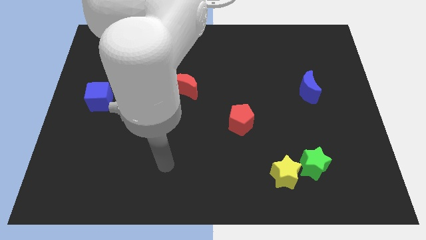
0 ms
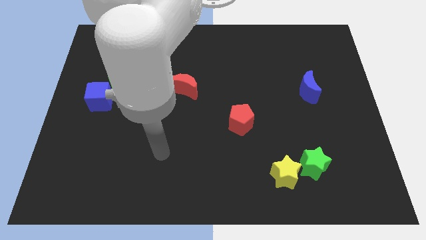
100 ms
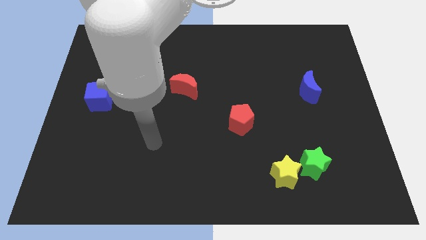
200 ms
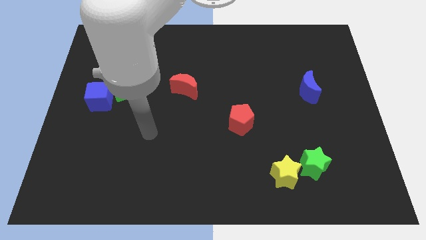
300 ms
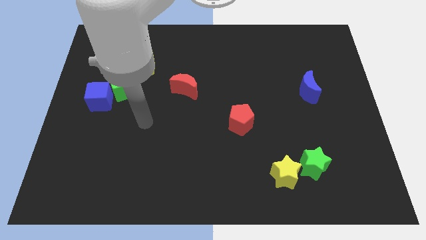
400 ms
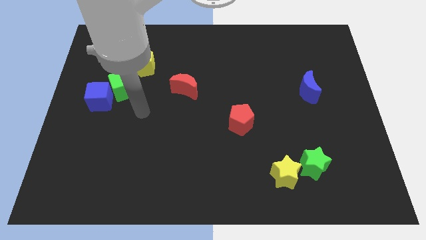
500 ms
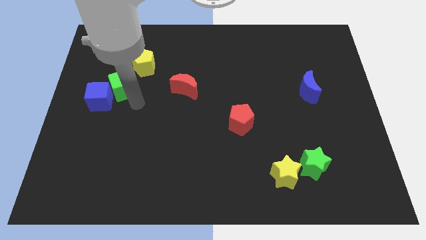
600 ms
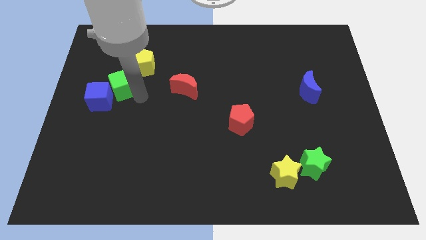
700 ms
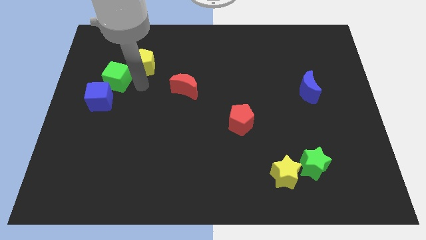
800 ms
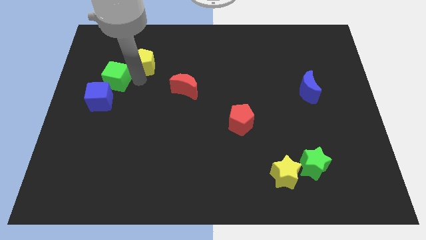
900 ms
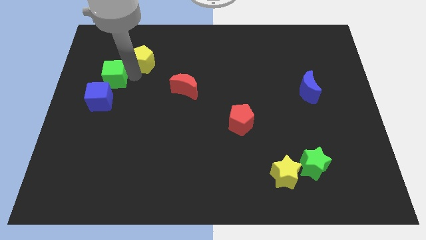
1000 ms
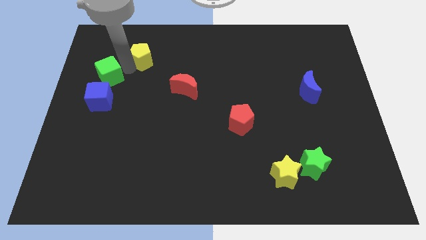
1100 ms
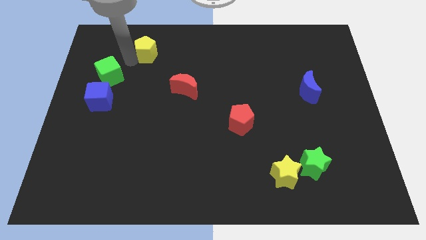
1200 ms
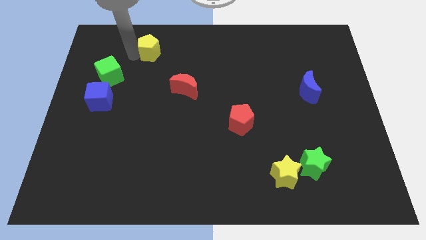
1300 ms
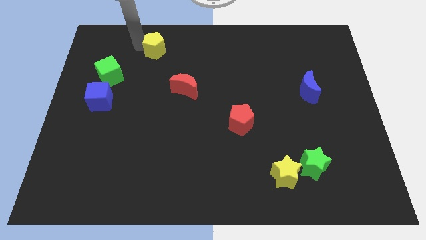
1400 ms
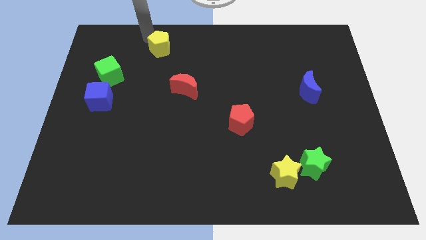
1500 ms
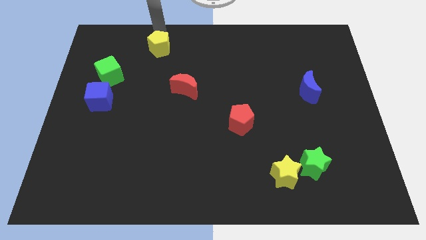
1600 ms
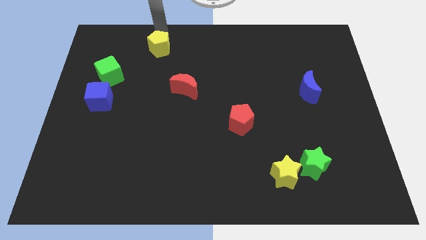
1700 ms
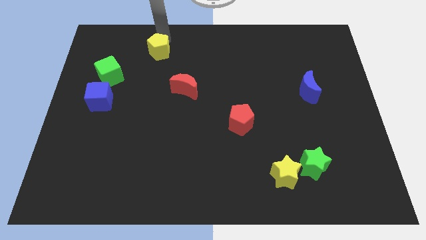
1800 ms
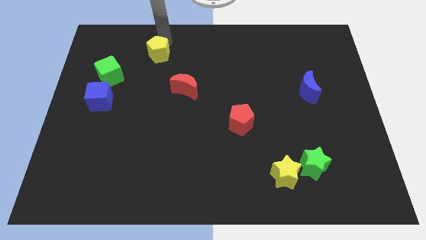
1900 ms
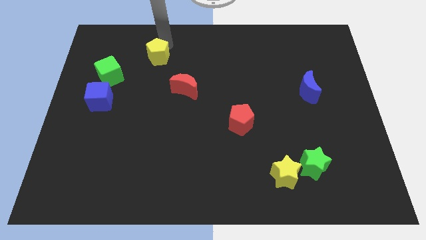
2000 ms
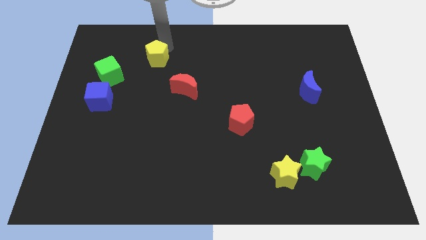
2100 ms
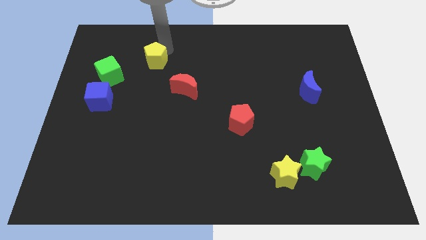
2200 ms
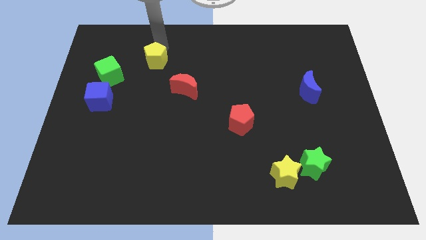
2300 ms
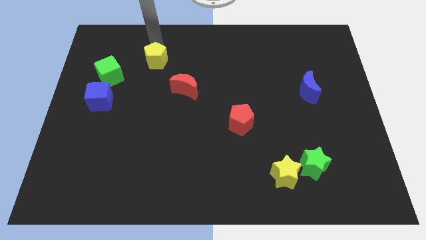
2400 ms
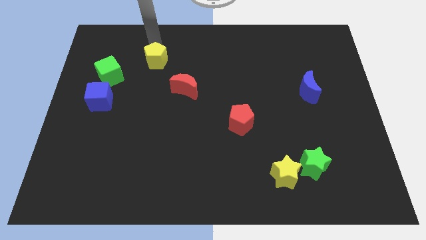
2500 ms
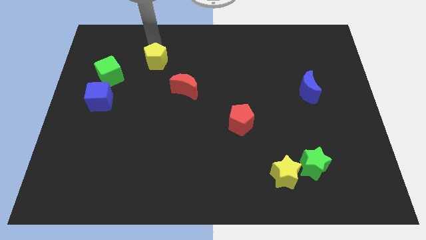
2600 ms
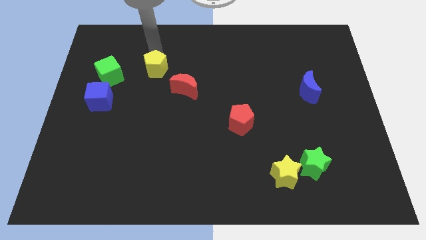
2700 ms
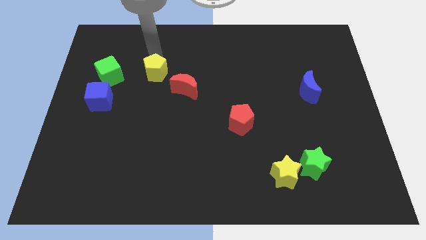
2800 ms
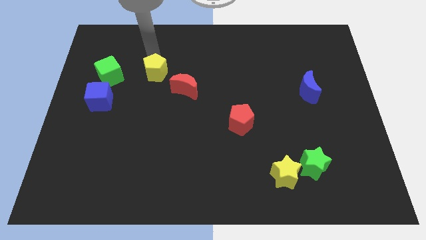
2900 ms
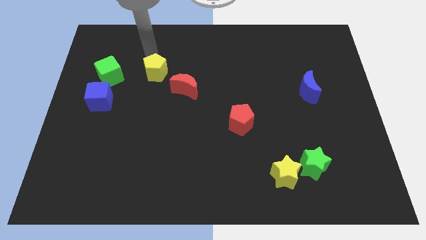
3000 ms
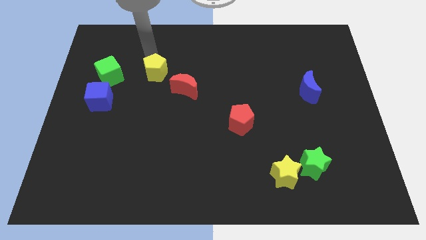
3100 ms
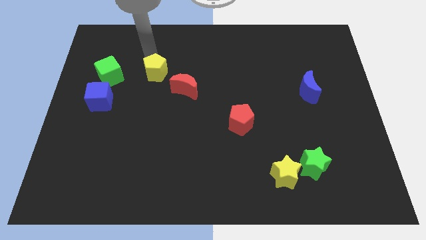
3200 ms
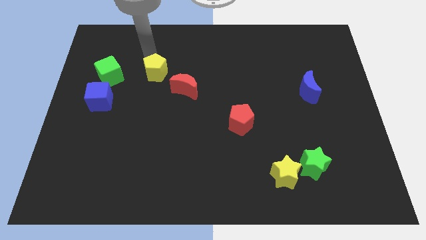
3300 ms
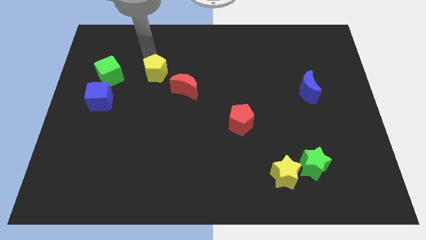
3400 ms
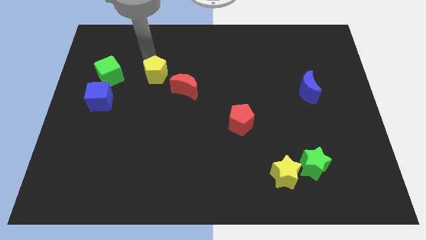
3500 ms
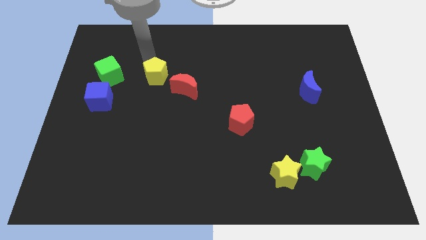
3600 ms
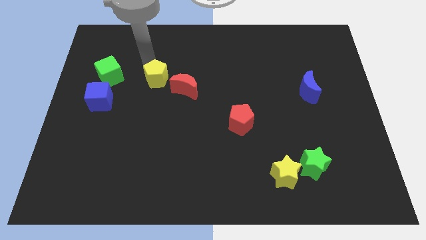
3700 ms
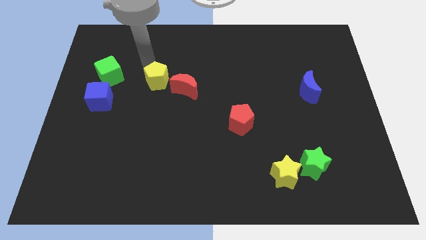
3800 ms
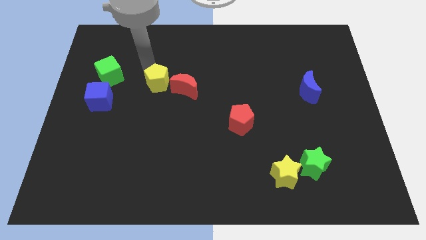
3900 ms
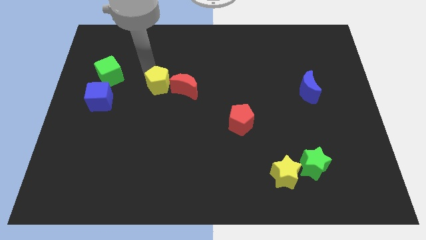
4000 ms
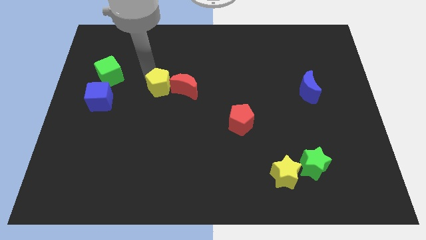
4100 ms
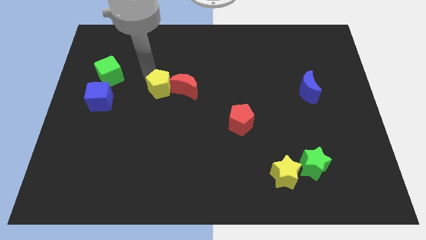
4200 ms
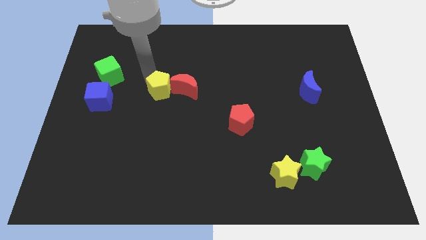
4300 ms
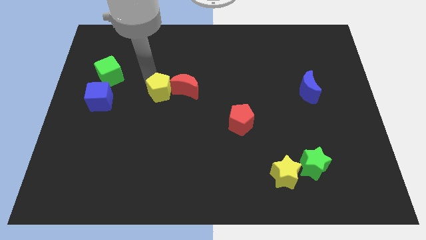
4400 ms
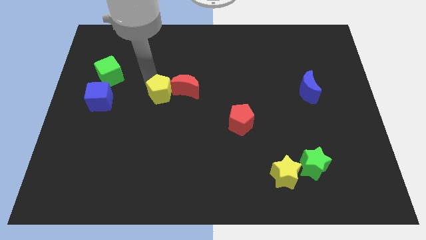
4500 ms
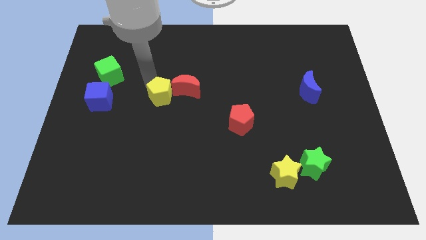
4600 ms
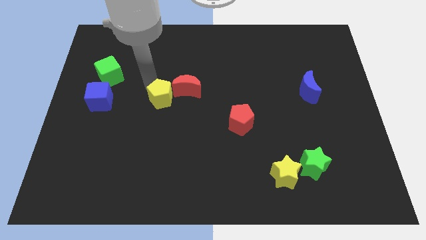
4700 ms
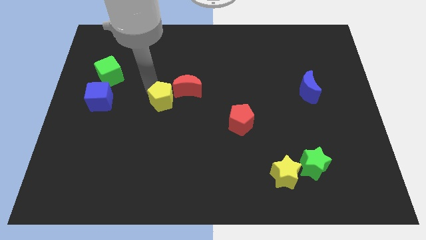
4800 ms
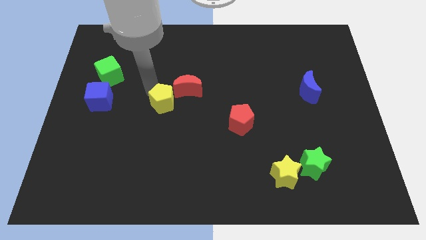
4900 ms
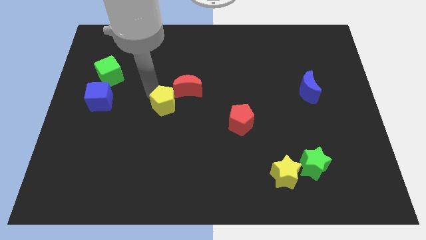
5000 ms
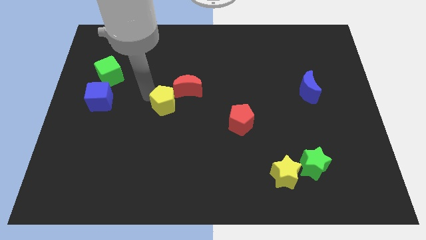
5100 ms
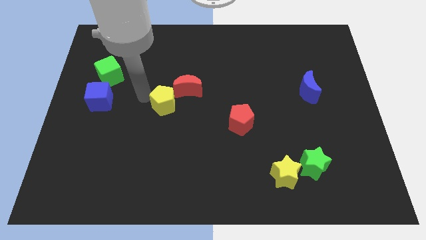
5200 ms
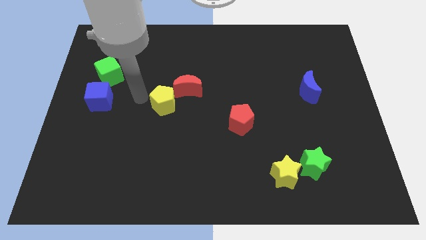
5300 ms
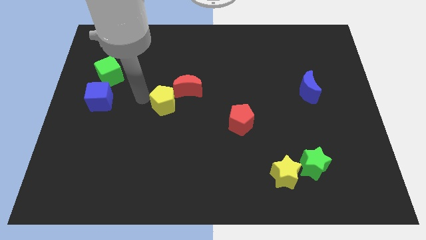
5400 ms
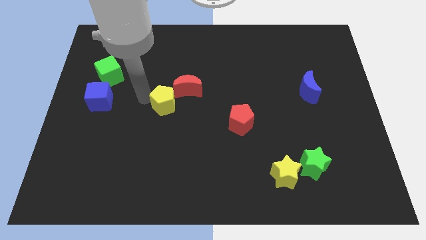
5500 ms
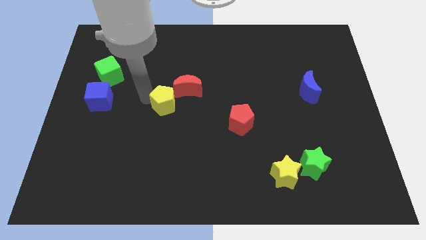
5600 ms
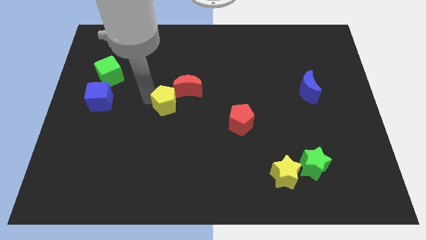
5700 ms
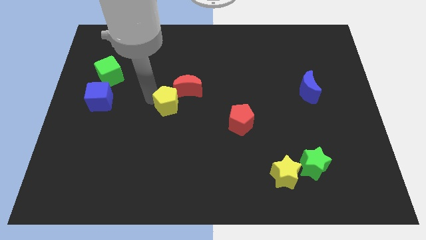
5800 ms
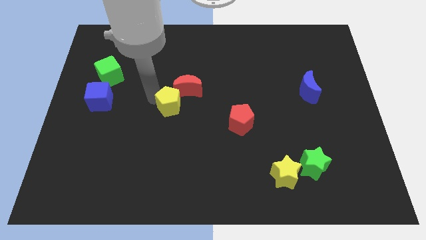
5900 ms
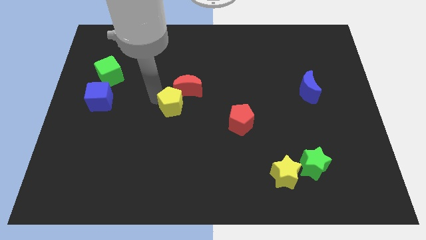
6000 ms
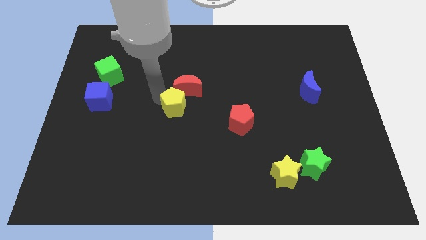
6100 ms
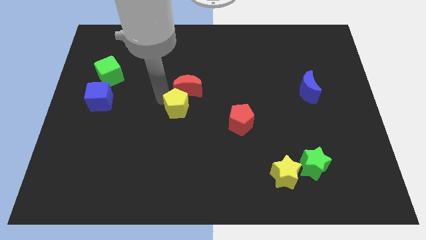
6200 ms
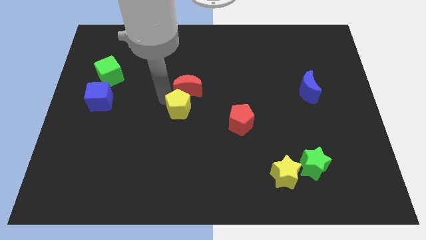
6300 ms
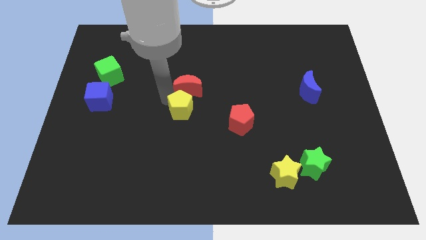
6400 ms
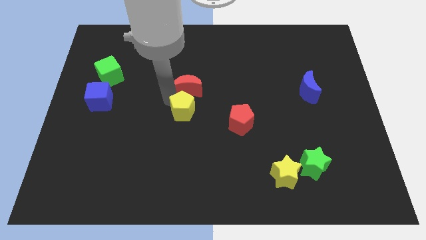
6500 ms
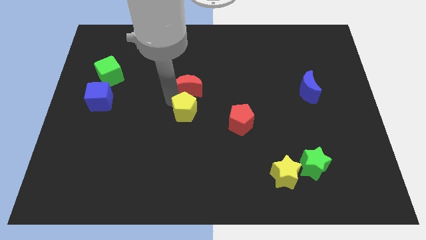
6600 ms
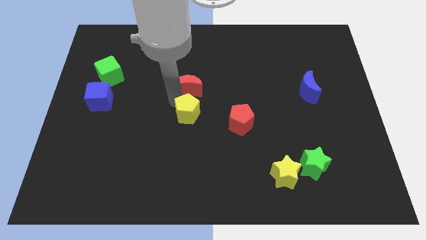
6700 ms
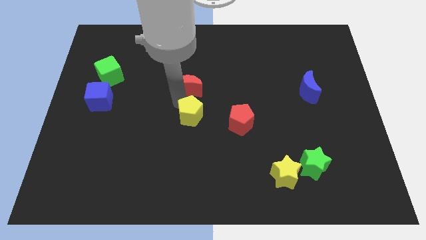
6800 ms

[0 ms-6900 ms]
slide the yellow pentagon down and right diagonally

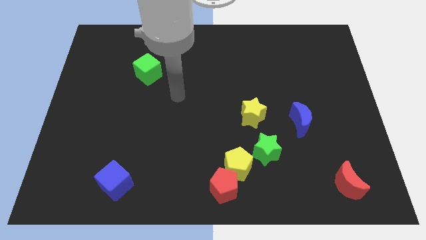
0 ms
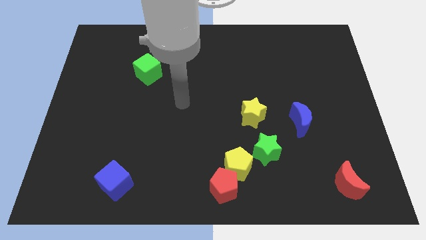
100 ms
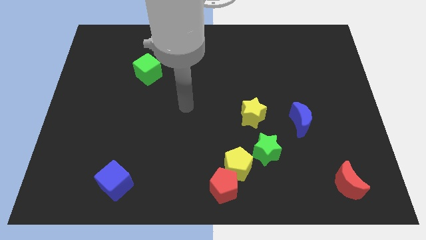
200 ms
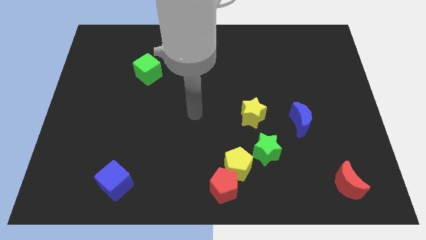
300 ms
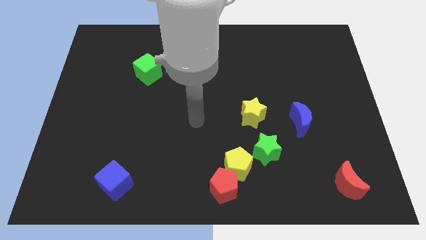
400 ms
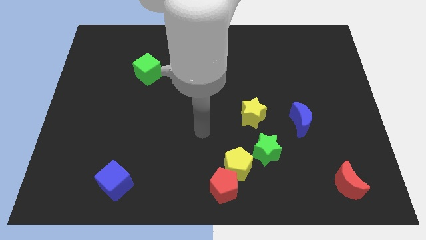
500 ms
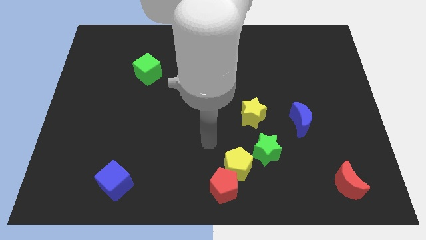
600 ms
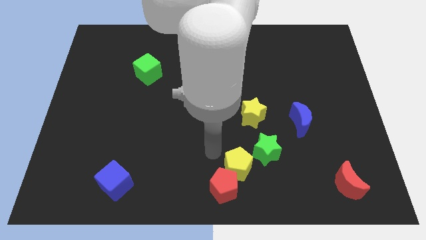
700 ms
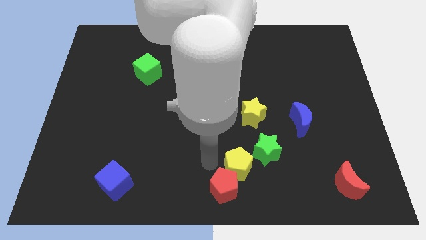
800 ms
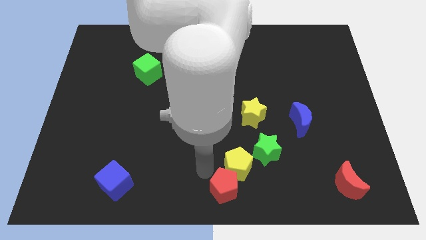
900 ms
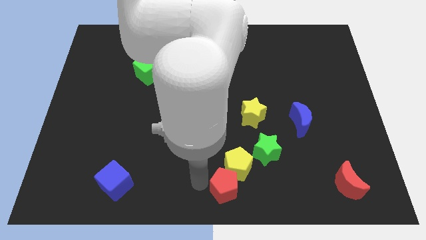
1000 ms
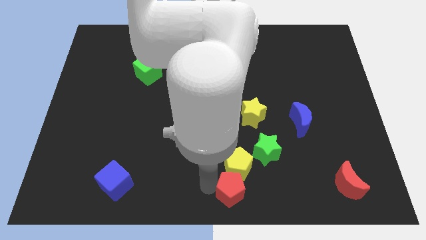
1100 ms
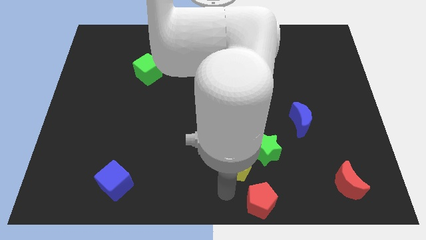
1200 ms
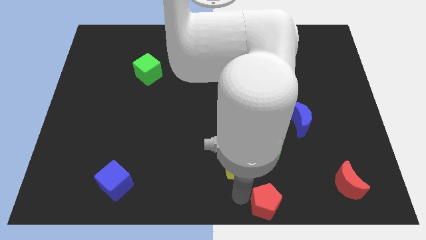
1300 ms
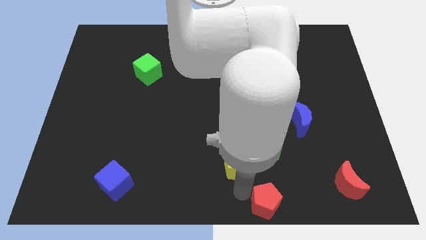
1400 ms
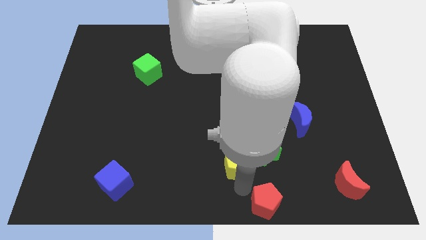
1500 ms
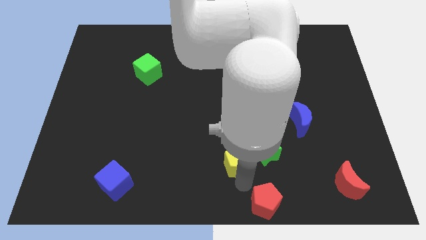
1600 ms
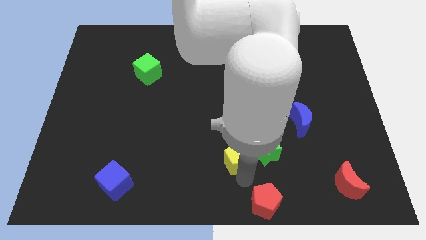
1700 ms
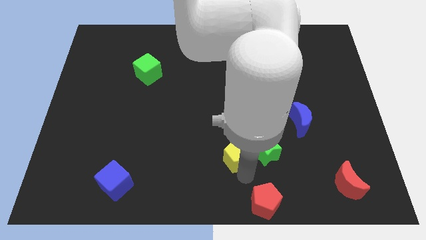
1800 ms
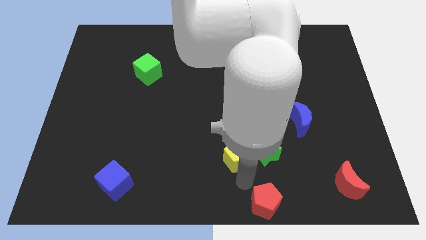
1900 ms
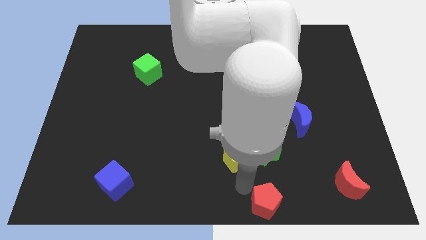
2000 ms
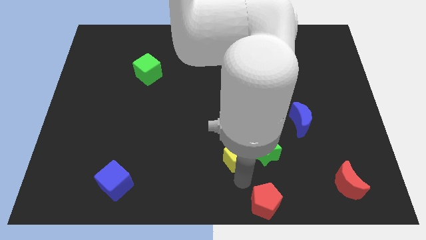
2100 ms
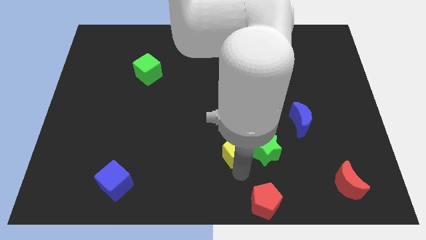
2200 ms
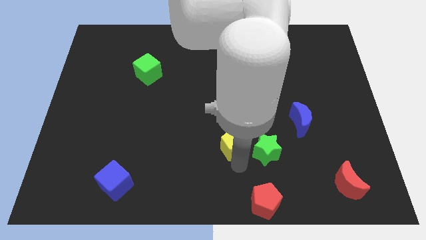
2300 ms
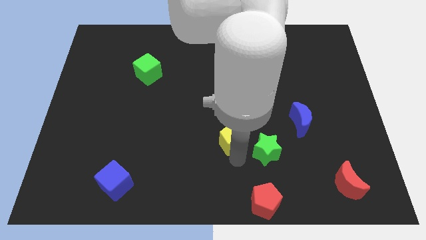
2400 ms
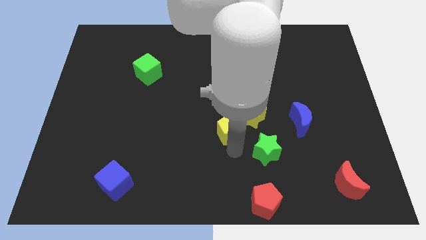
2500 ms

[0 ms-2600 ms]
slide the yellow pentagon a little up
